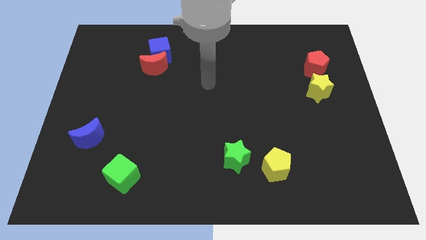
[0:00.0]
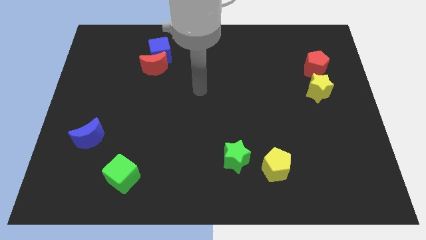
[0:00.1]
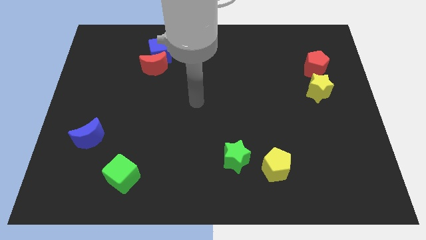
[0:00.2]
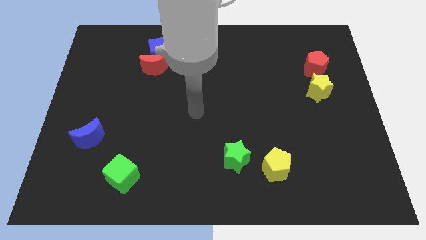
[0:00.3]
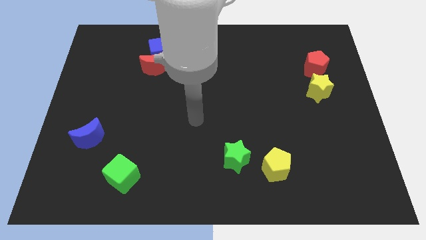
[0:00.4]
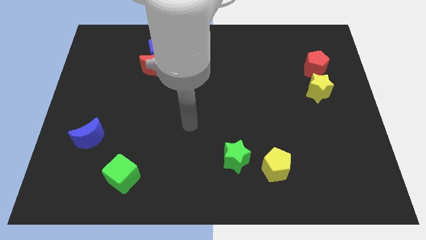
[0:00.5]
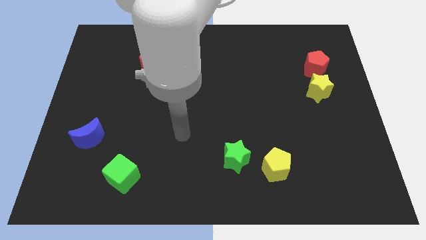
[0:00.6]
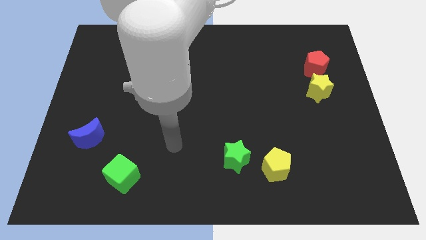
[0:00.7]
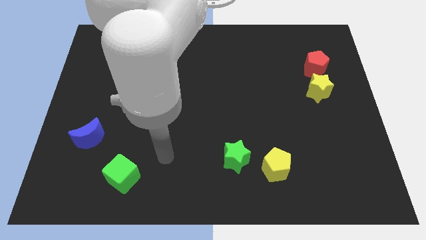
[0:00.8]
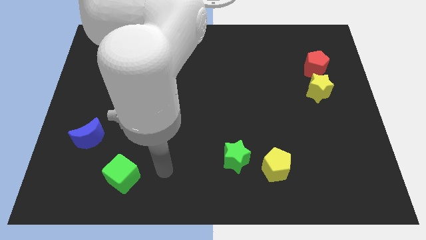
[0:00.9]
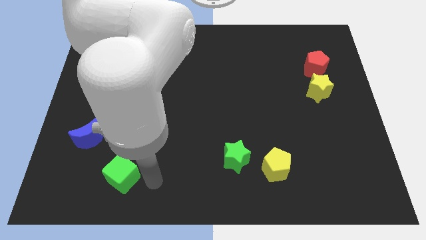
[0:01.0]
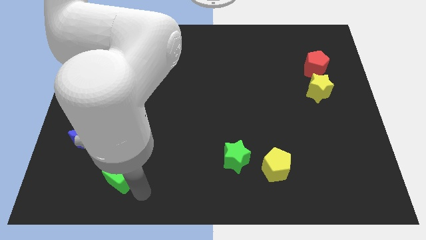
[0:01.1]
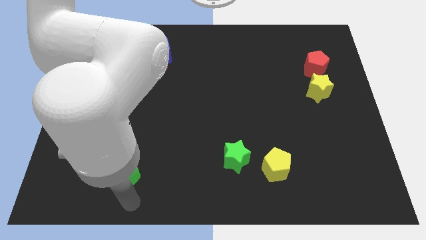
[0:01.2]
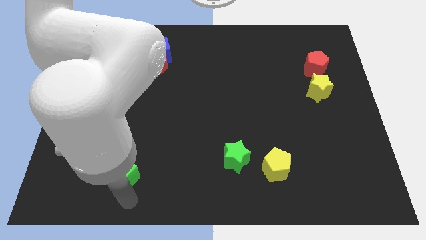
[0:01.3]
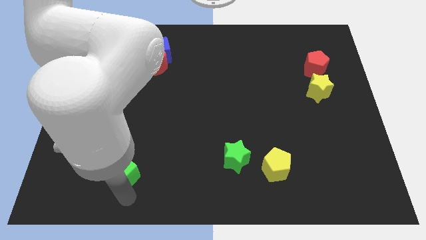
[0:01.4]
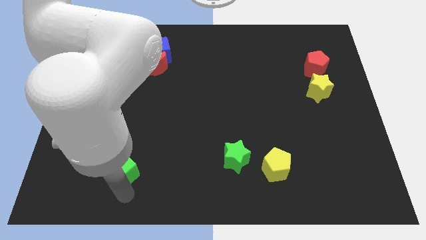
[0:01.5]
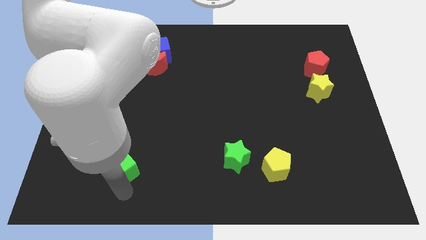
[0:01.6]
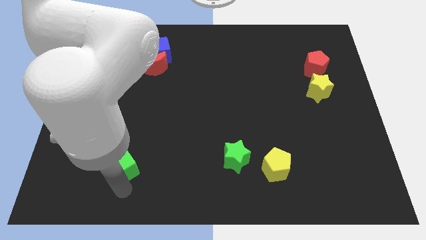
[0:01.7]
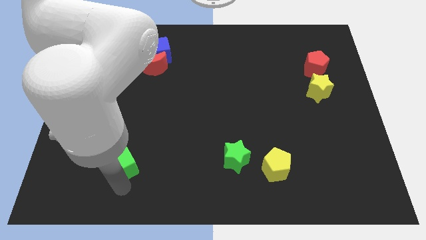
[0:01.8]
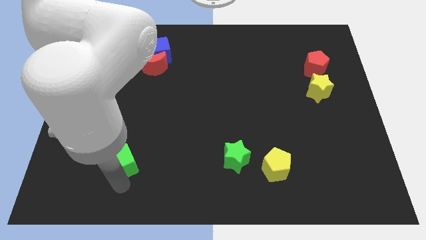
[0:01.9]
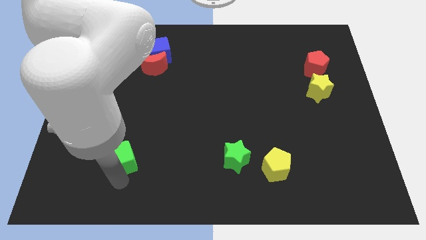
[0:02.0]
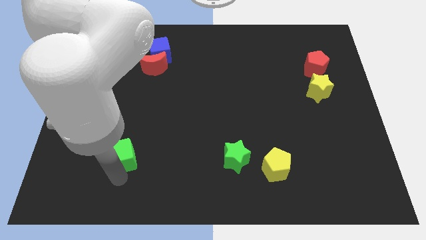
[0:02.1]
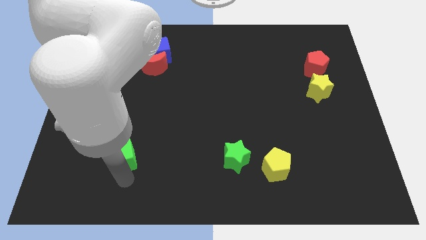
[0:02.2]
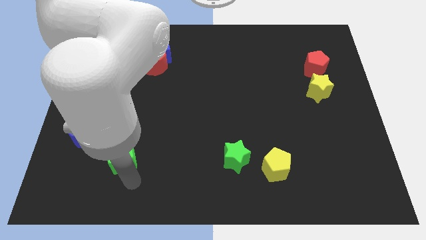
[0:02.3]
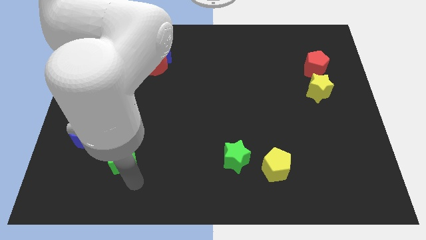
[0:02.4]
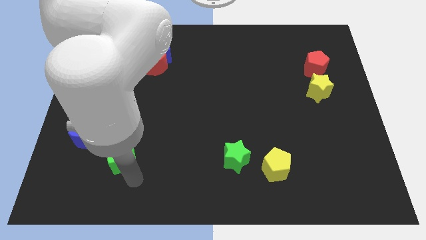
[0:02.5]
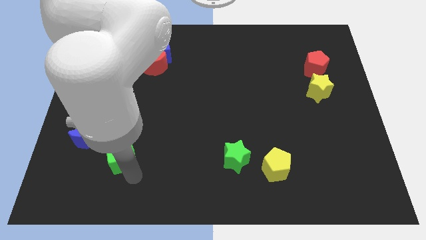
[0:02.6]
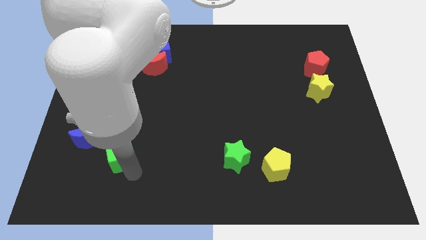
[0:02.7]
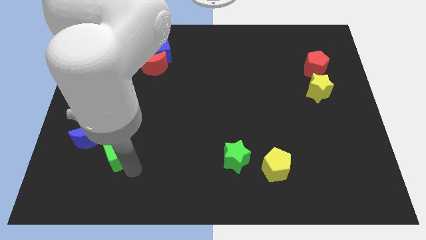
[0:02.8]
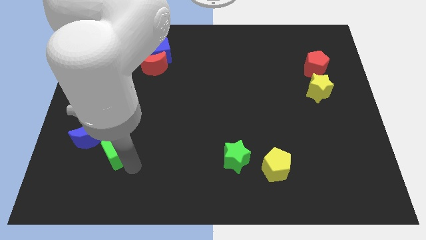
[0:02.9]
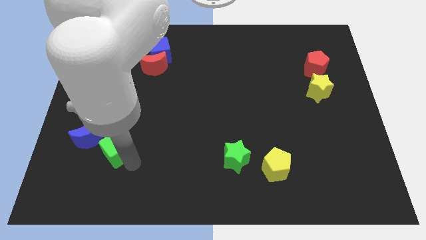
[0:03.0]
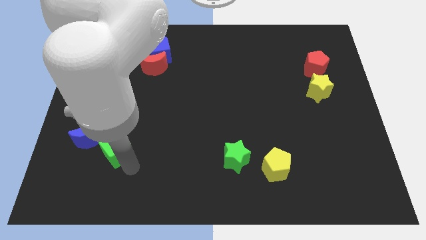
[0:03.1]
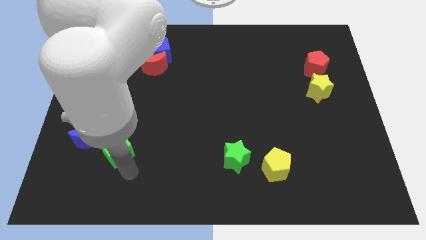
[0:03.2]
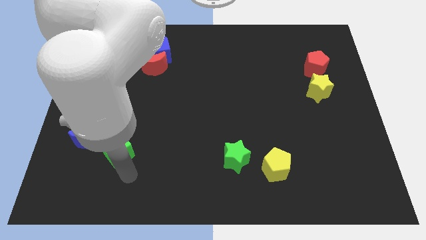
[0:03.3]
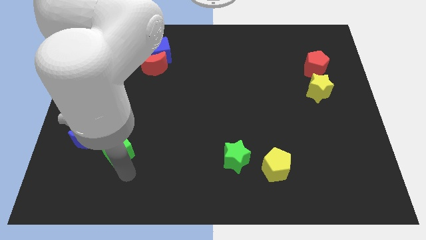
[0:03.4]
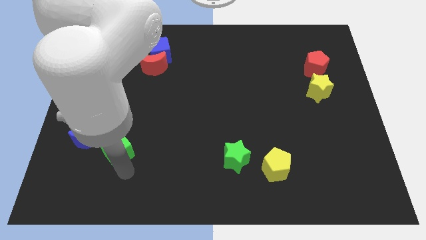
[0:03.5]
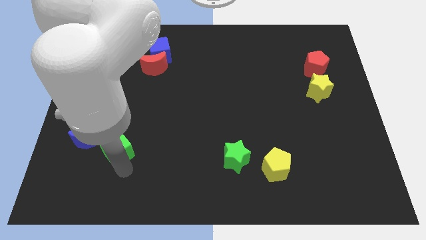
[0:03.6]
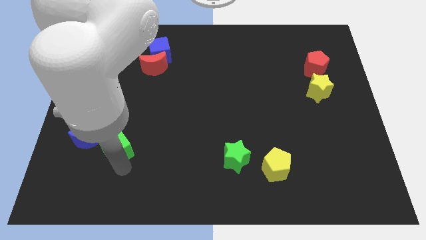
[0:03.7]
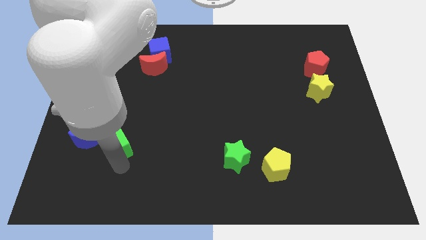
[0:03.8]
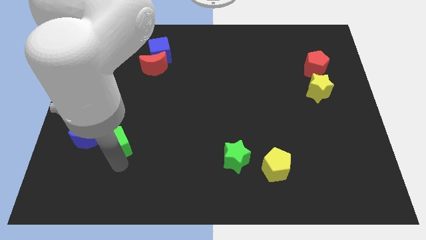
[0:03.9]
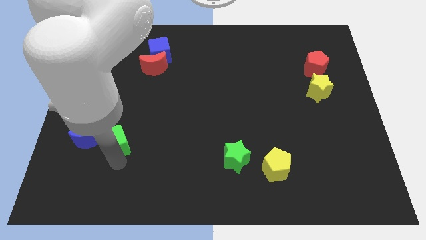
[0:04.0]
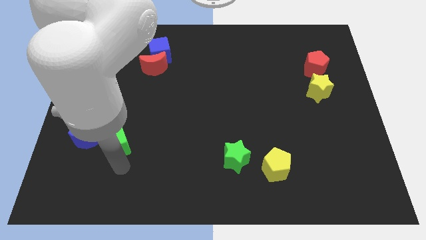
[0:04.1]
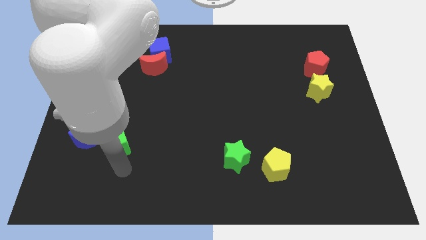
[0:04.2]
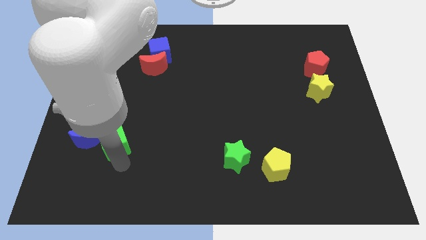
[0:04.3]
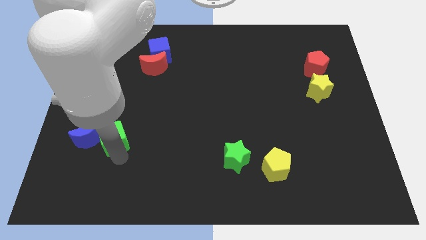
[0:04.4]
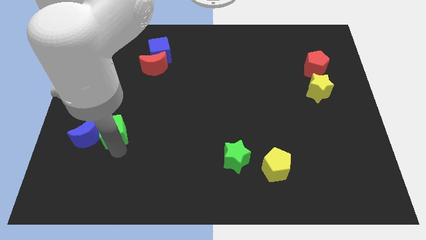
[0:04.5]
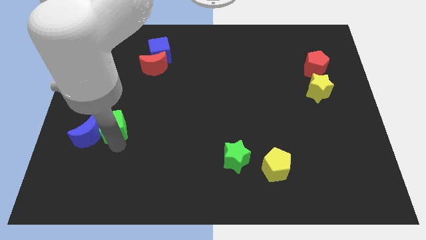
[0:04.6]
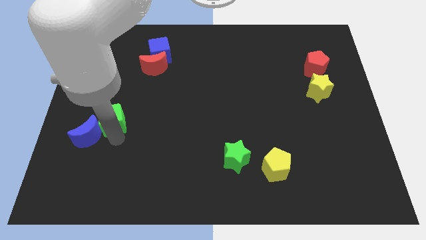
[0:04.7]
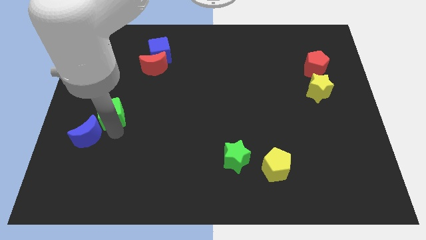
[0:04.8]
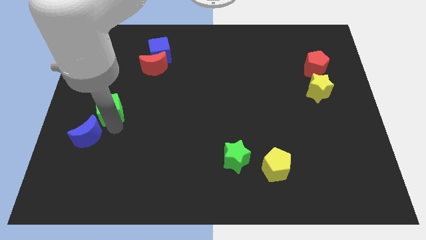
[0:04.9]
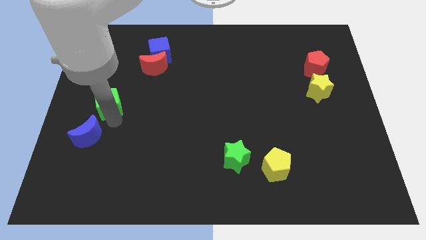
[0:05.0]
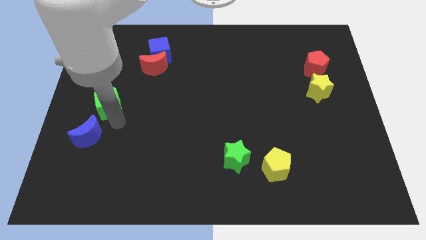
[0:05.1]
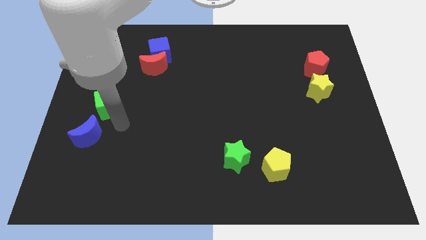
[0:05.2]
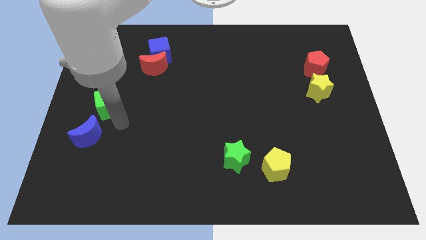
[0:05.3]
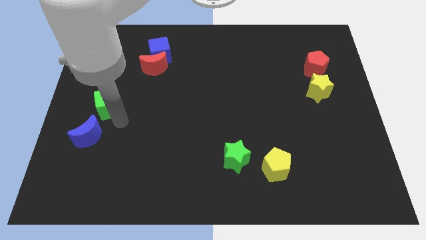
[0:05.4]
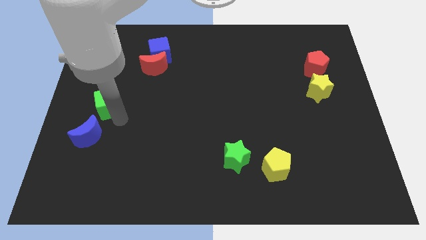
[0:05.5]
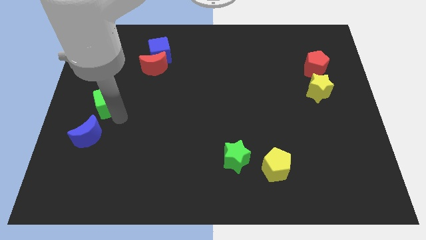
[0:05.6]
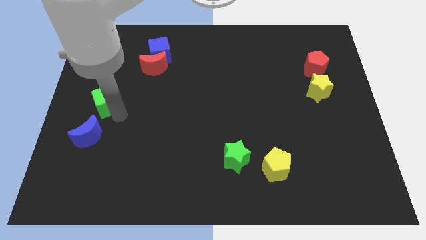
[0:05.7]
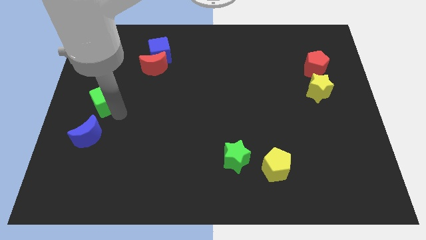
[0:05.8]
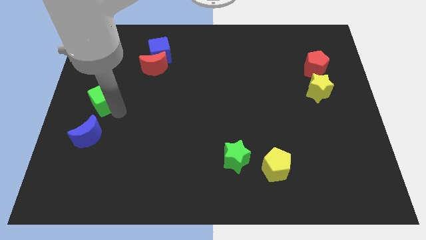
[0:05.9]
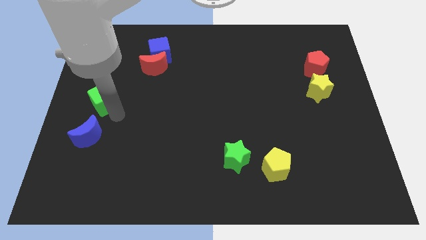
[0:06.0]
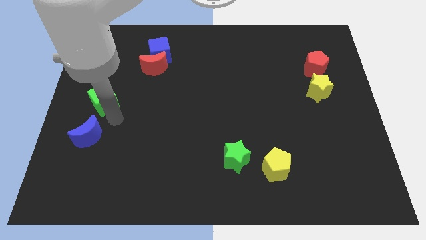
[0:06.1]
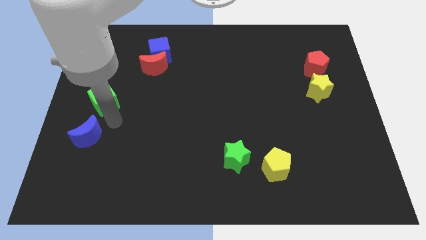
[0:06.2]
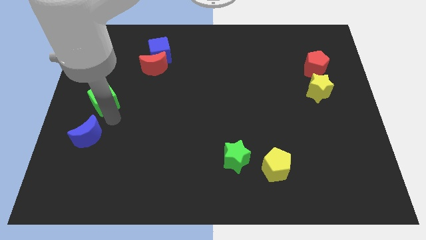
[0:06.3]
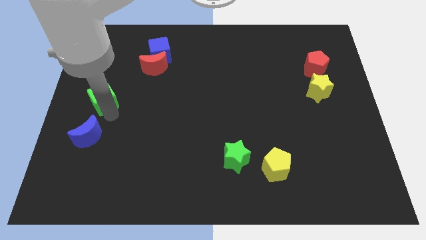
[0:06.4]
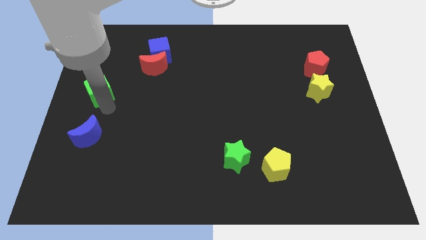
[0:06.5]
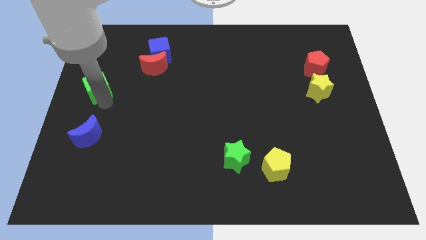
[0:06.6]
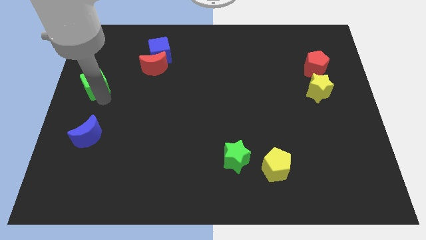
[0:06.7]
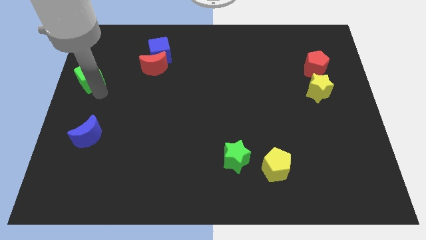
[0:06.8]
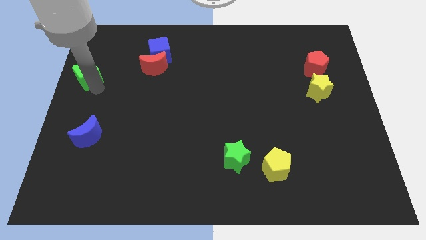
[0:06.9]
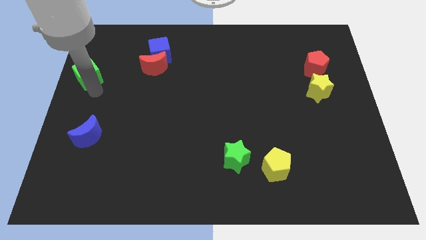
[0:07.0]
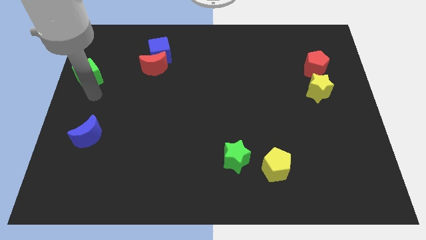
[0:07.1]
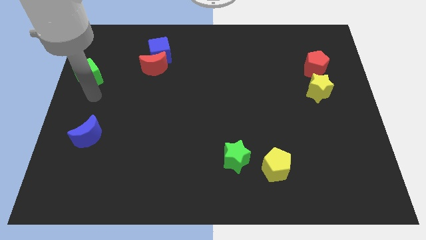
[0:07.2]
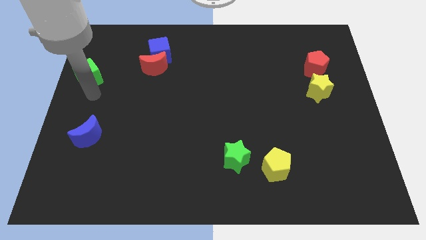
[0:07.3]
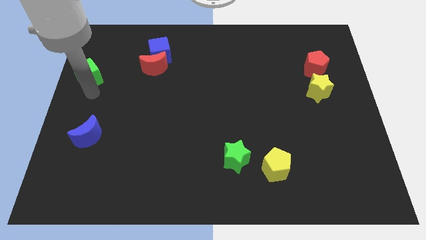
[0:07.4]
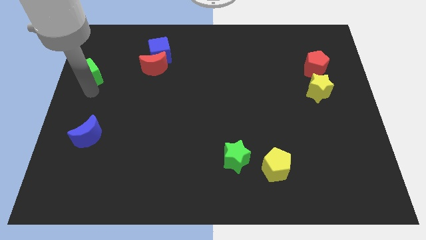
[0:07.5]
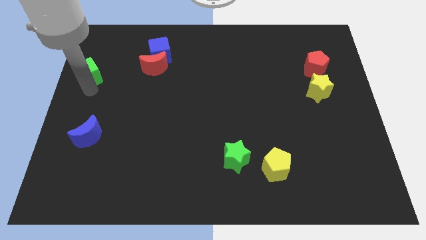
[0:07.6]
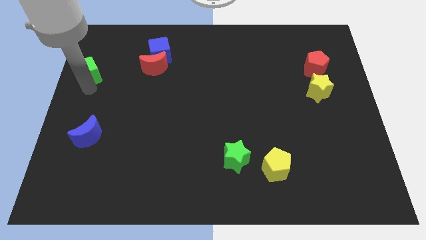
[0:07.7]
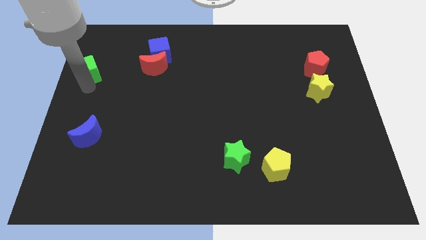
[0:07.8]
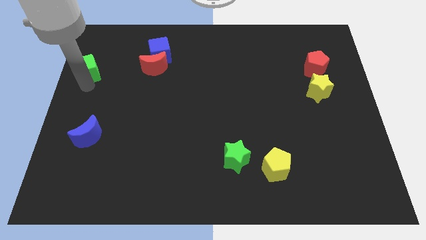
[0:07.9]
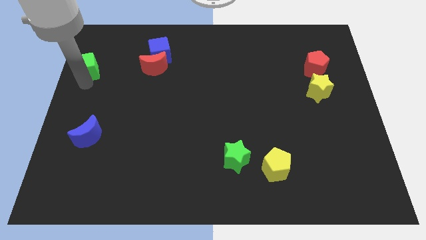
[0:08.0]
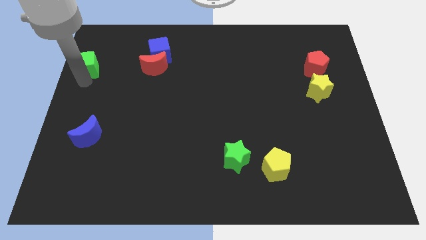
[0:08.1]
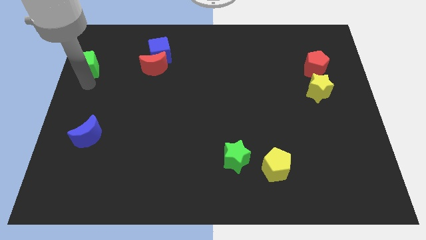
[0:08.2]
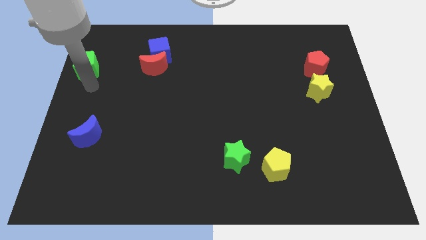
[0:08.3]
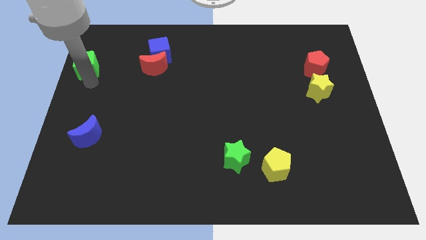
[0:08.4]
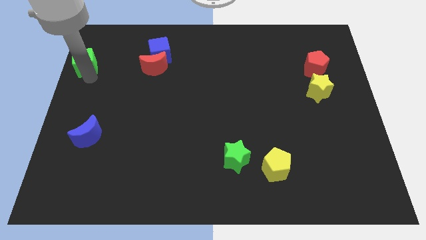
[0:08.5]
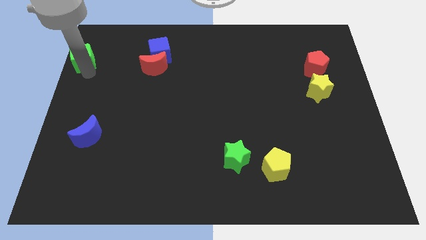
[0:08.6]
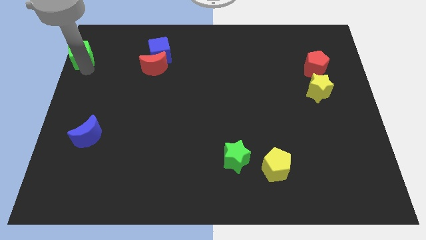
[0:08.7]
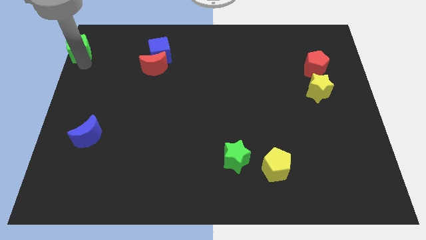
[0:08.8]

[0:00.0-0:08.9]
put the green cube to the top left of the board
